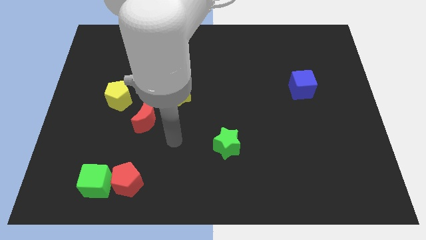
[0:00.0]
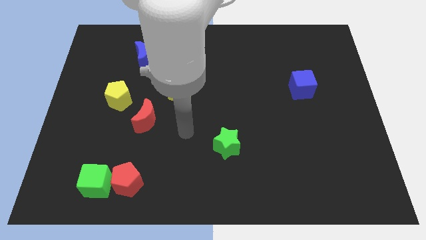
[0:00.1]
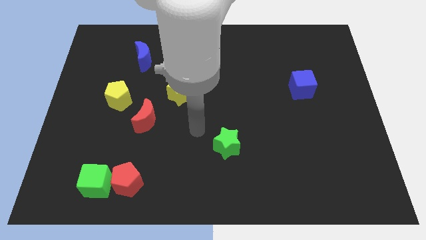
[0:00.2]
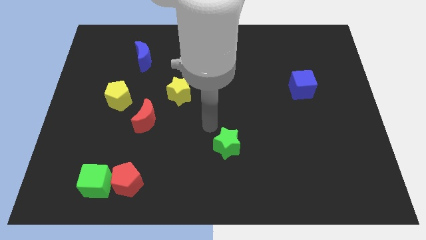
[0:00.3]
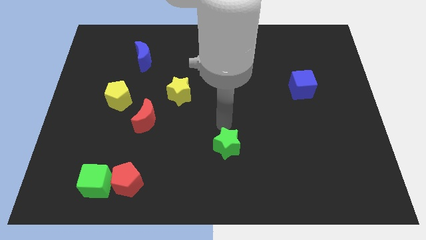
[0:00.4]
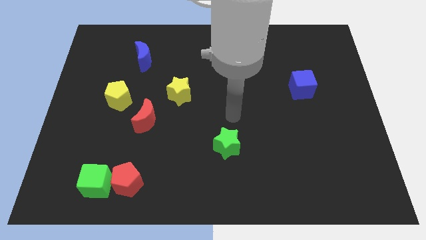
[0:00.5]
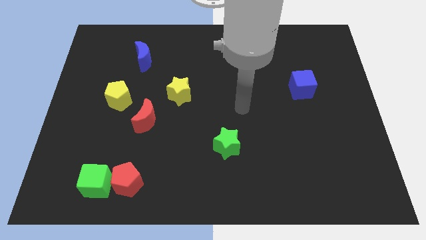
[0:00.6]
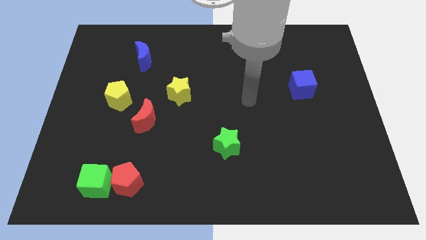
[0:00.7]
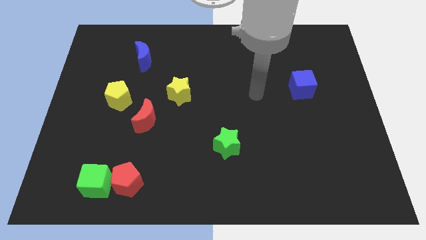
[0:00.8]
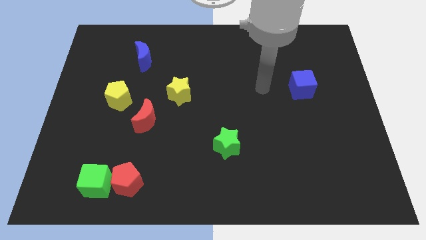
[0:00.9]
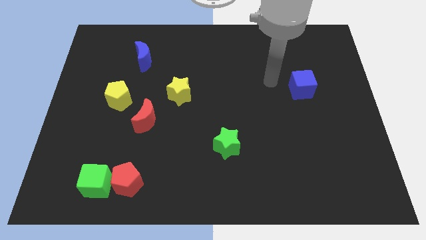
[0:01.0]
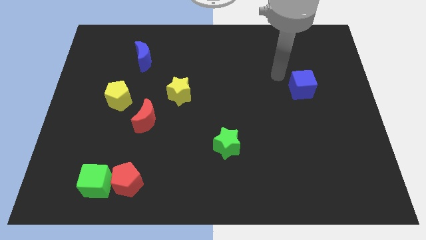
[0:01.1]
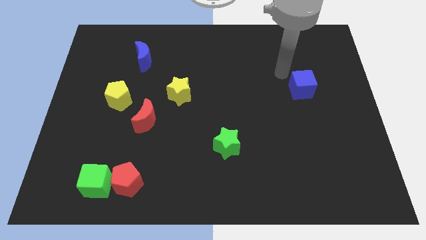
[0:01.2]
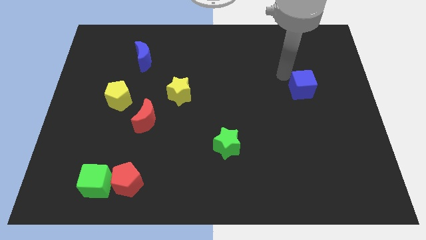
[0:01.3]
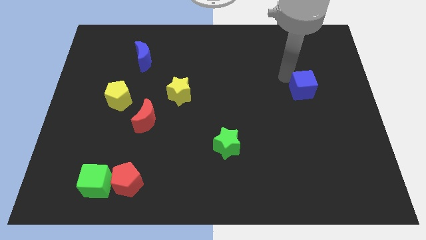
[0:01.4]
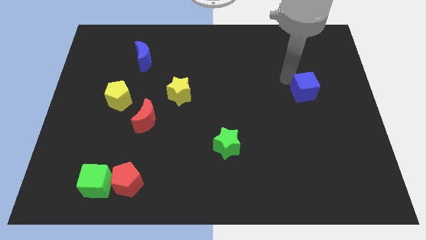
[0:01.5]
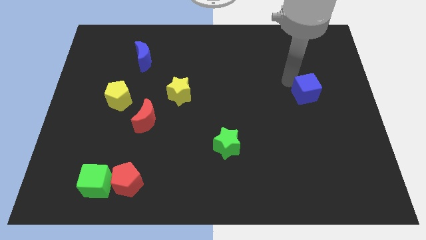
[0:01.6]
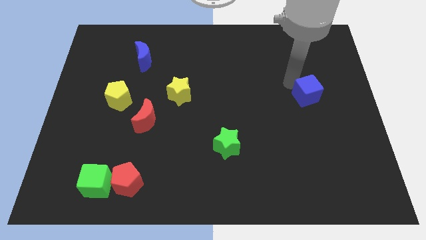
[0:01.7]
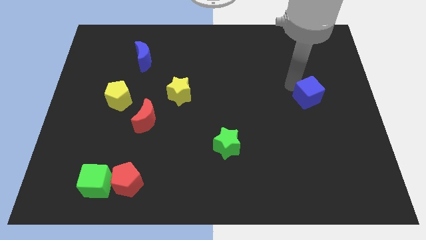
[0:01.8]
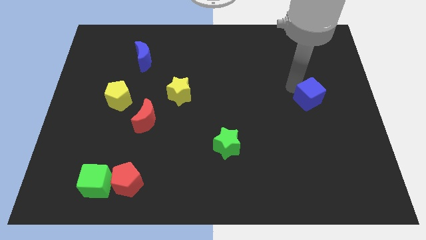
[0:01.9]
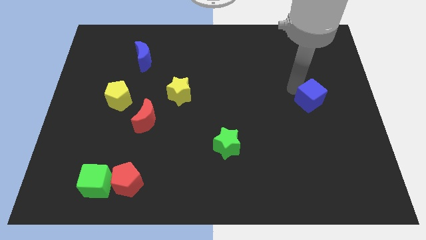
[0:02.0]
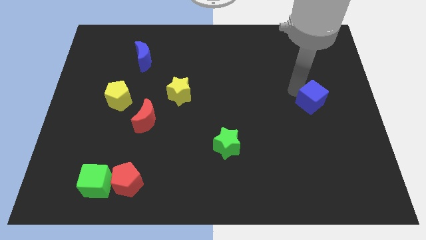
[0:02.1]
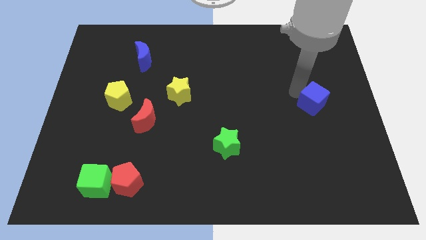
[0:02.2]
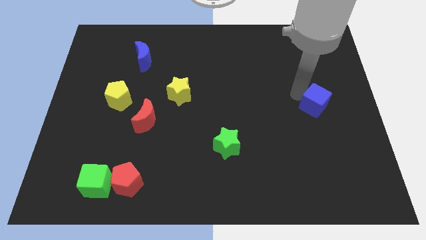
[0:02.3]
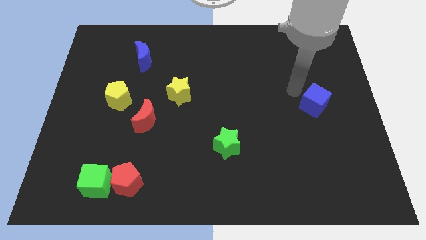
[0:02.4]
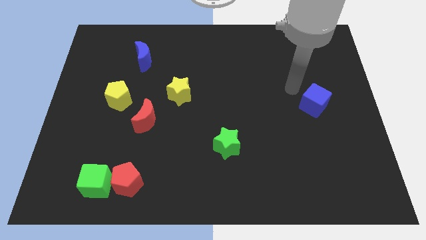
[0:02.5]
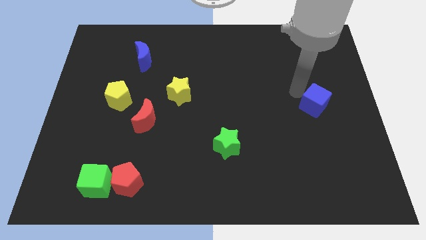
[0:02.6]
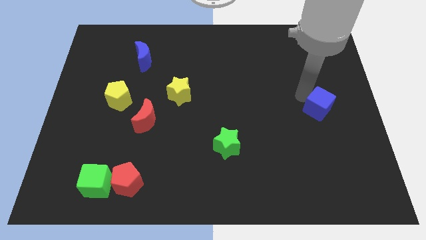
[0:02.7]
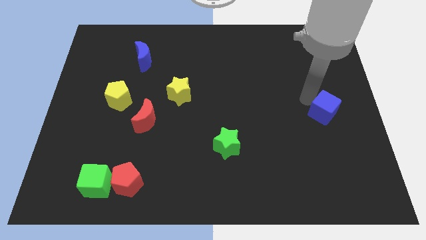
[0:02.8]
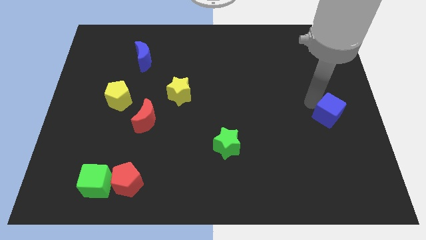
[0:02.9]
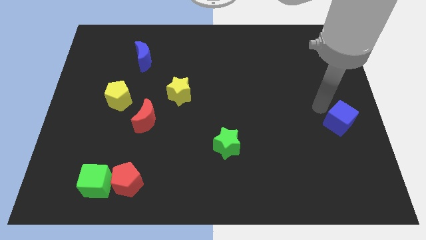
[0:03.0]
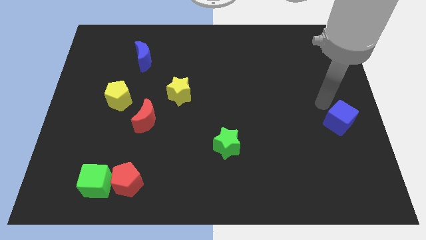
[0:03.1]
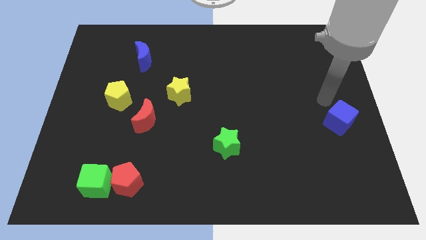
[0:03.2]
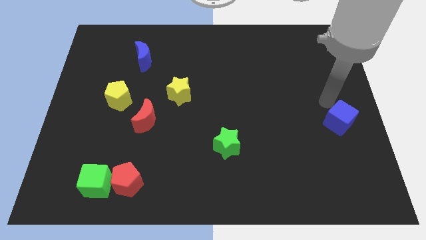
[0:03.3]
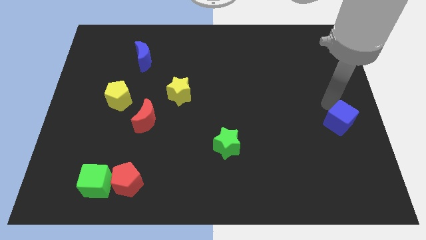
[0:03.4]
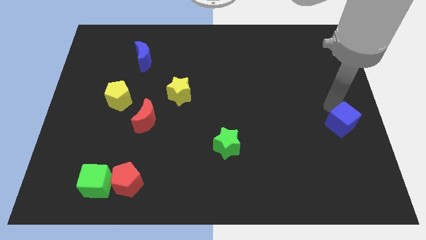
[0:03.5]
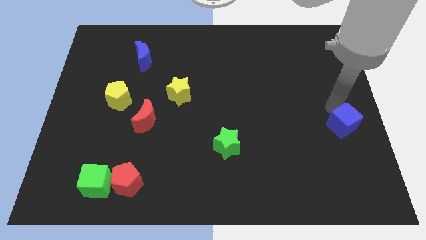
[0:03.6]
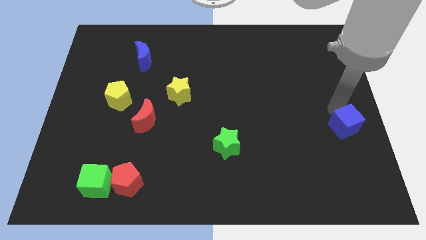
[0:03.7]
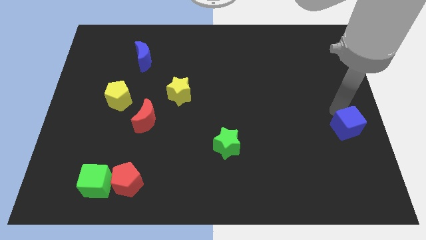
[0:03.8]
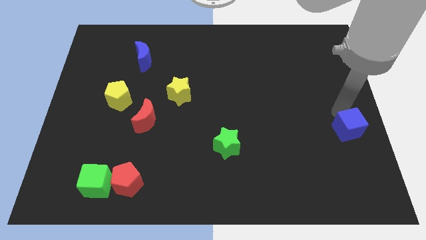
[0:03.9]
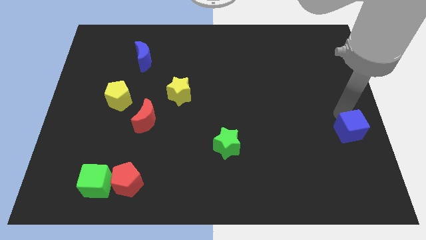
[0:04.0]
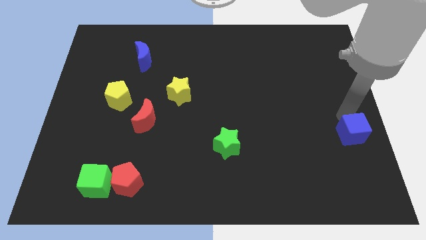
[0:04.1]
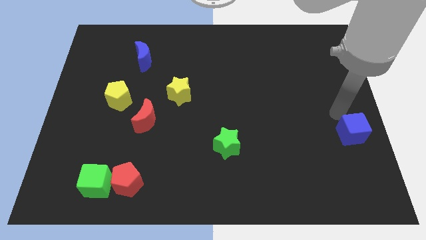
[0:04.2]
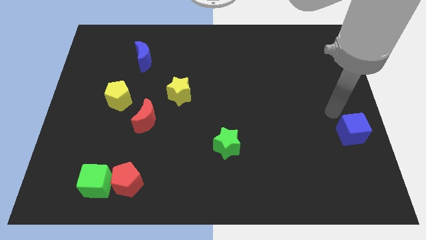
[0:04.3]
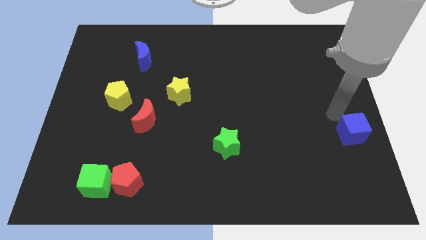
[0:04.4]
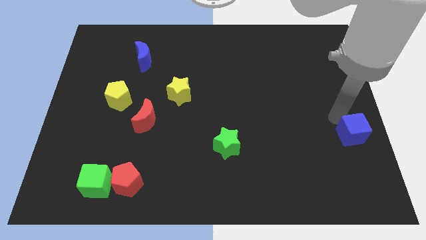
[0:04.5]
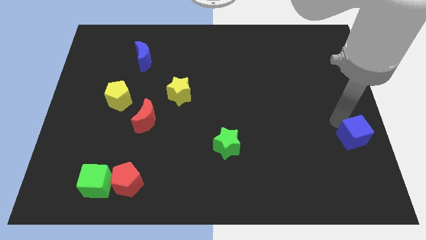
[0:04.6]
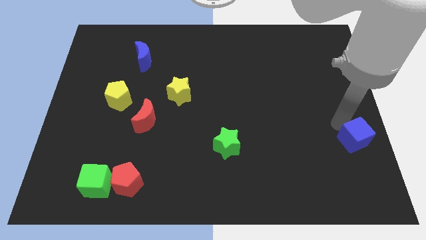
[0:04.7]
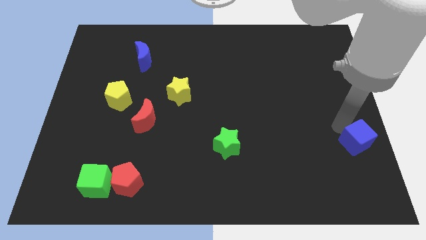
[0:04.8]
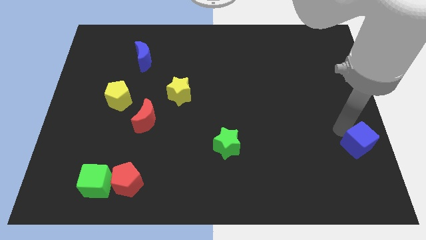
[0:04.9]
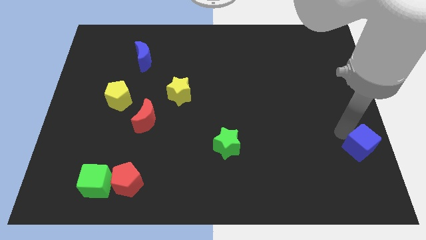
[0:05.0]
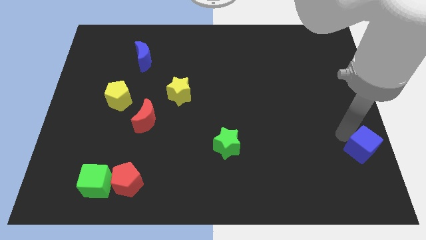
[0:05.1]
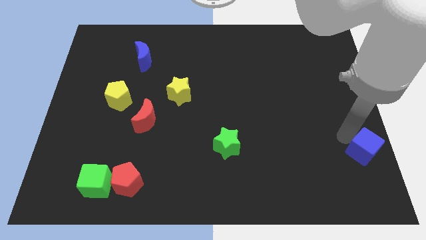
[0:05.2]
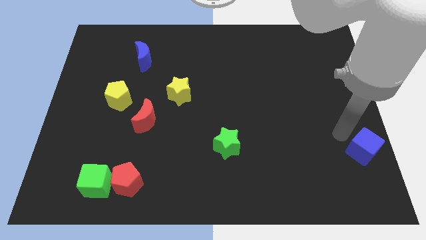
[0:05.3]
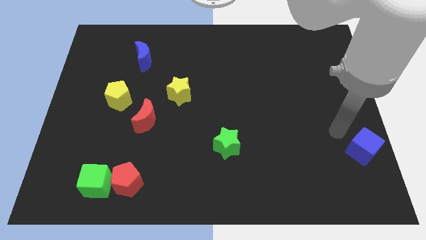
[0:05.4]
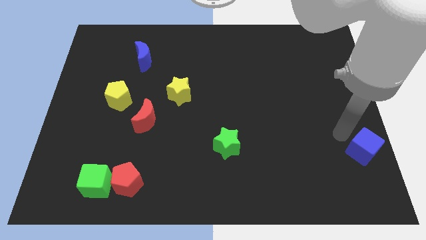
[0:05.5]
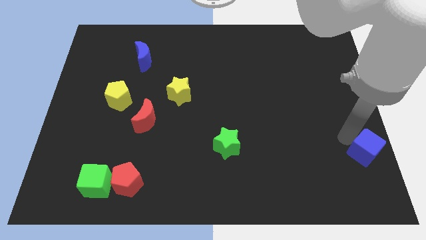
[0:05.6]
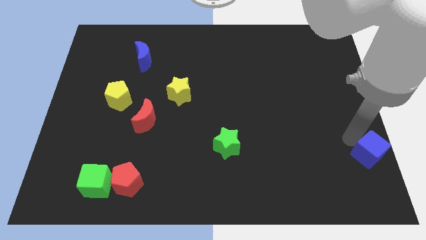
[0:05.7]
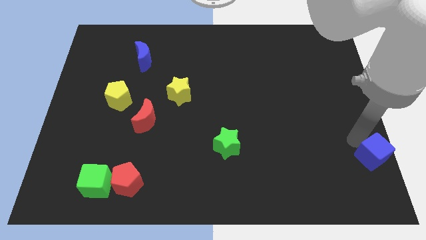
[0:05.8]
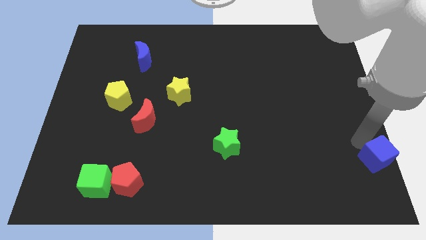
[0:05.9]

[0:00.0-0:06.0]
move the blue cube to the bottom right

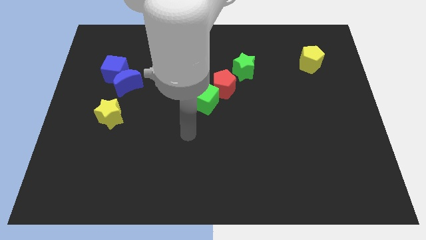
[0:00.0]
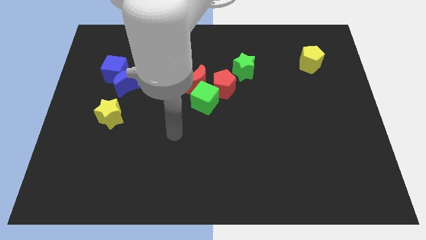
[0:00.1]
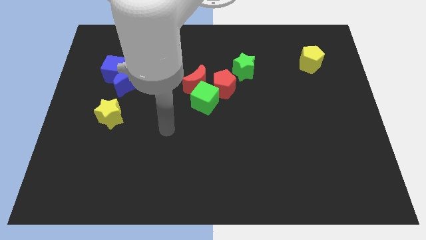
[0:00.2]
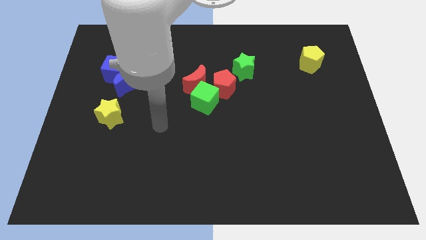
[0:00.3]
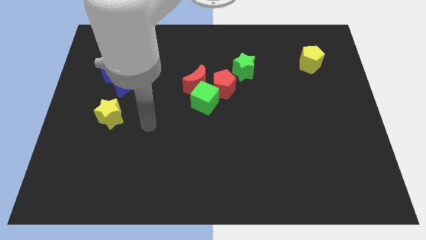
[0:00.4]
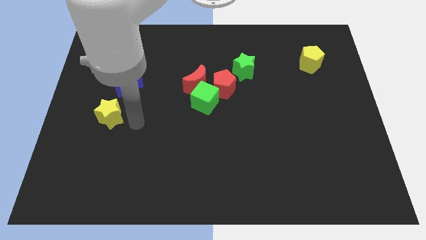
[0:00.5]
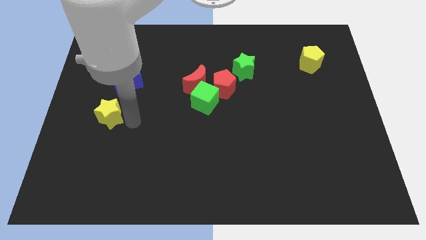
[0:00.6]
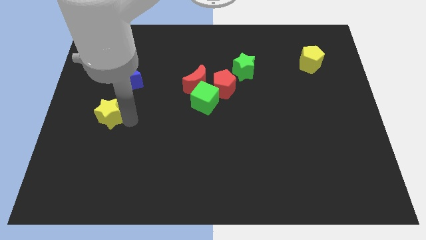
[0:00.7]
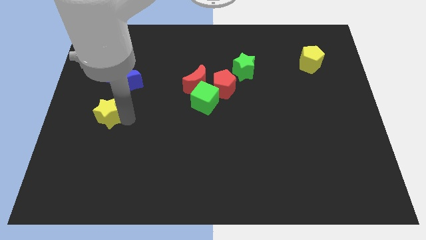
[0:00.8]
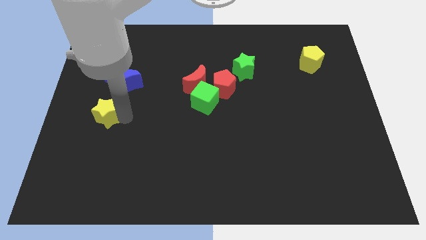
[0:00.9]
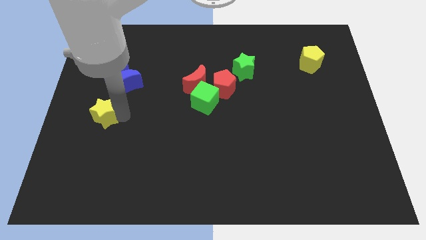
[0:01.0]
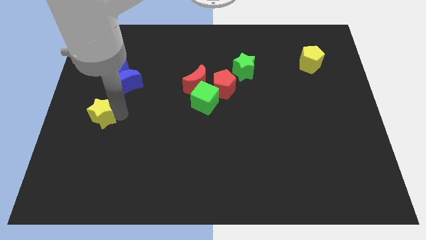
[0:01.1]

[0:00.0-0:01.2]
move the yellow star to the left side of the board
